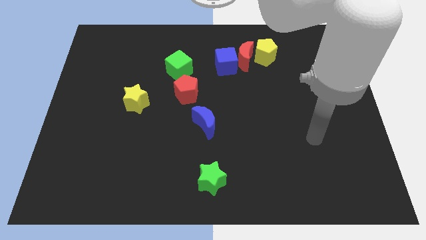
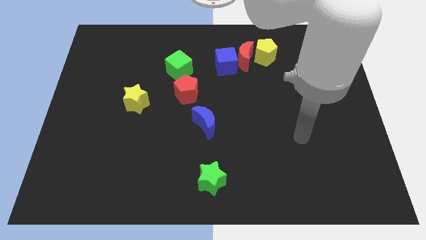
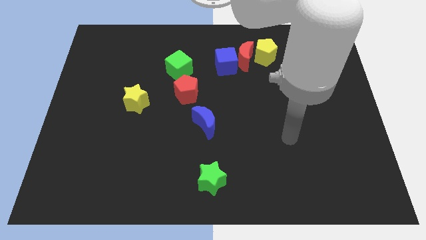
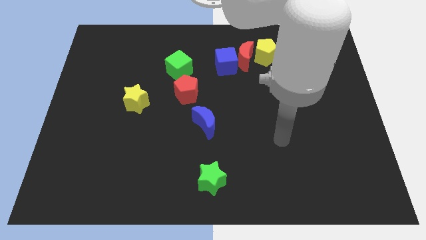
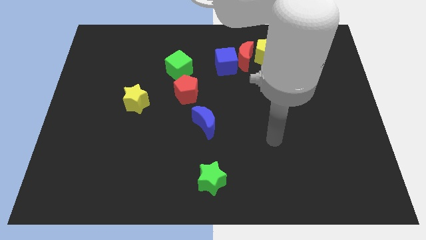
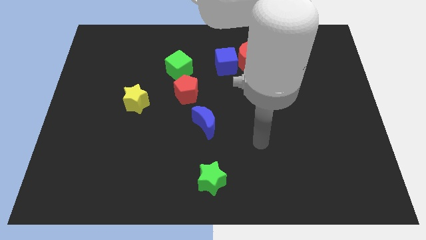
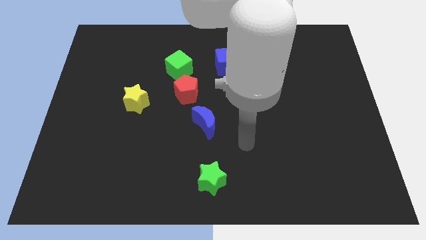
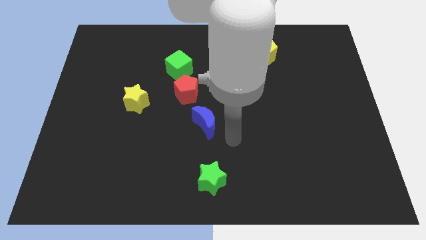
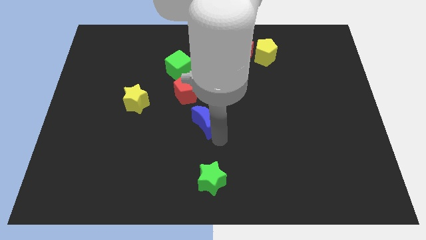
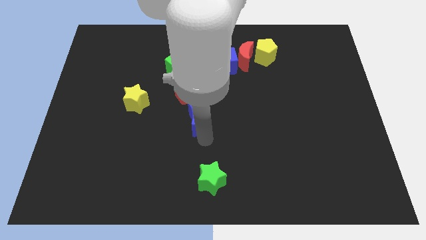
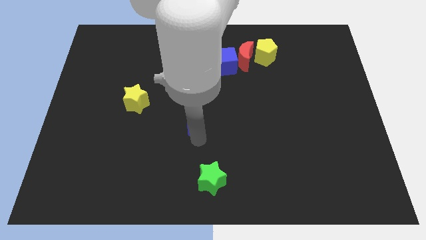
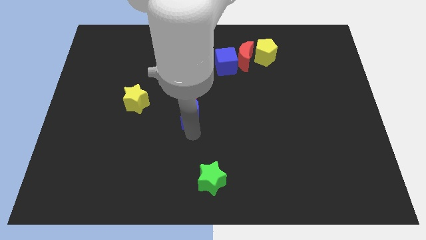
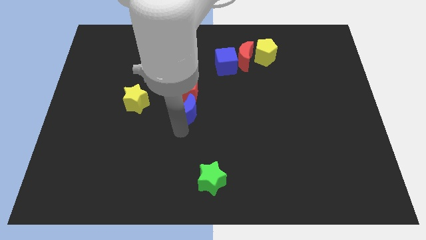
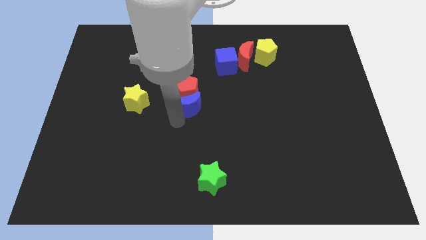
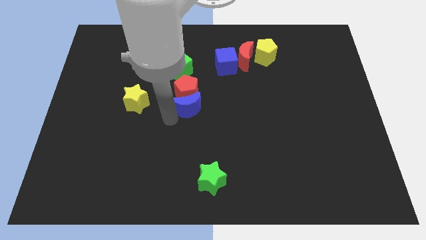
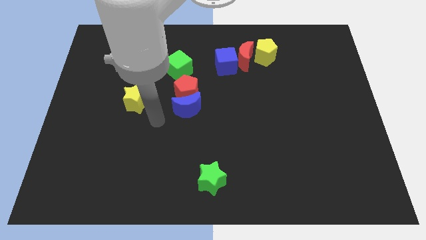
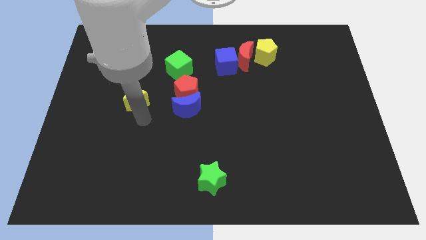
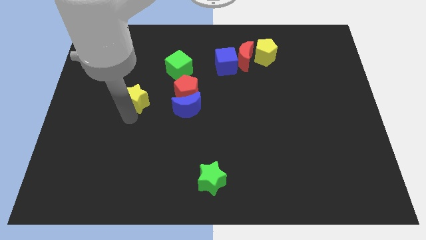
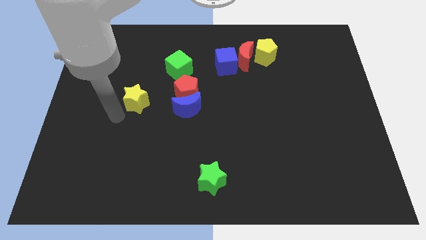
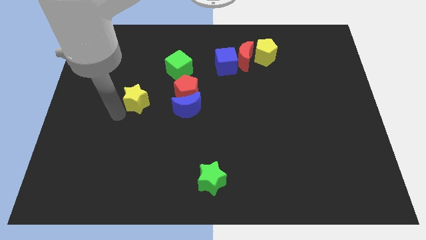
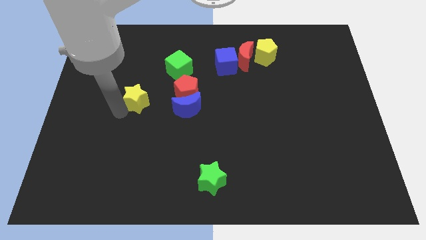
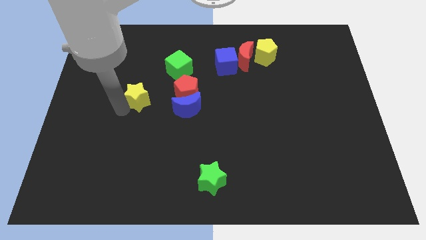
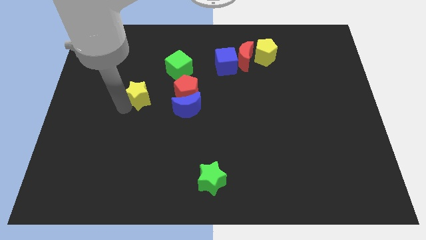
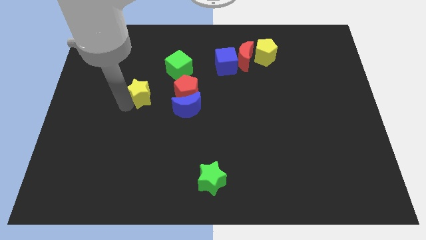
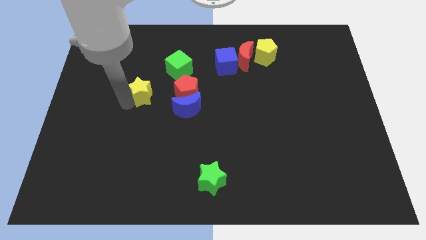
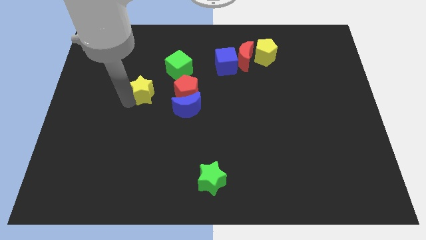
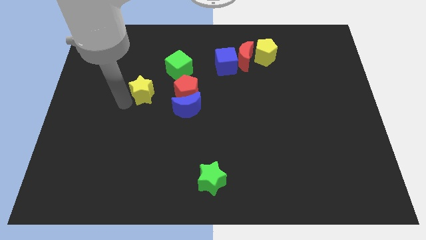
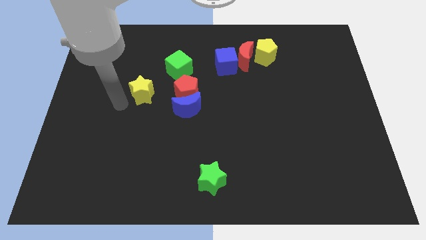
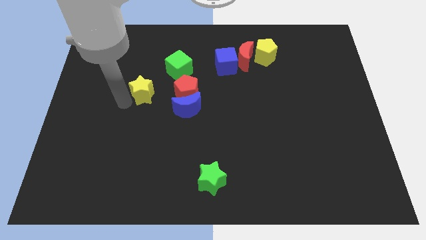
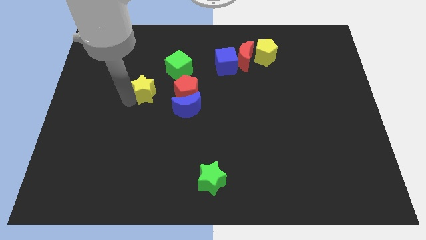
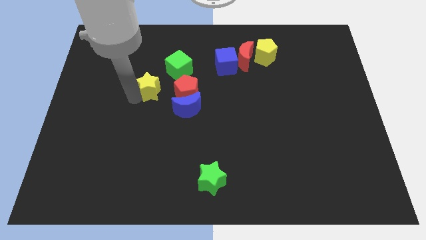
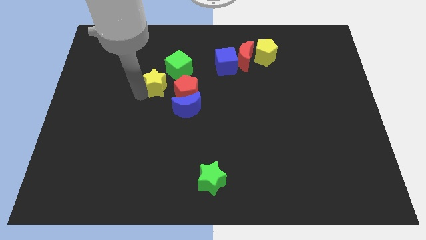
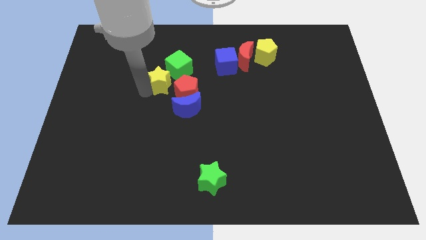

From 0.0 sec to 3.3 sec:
slightly slide the yellow star upwards and right

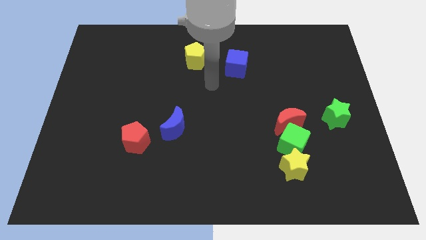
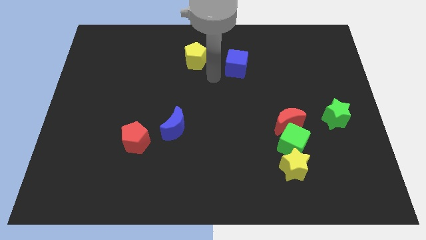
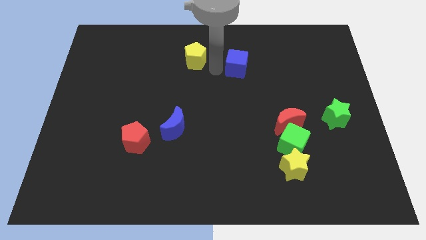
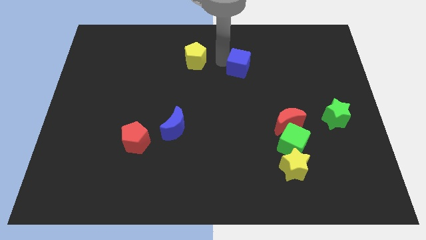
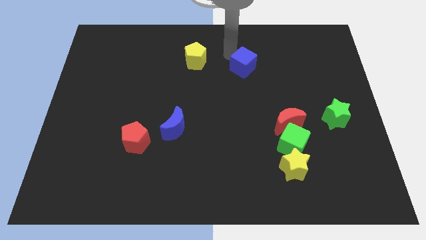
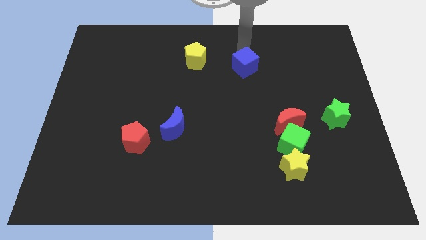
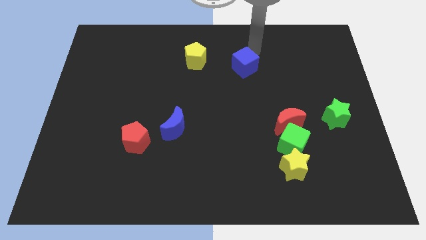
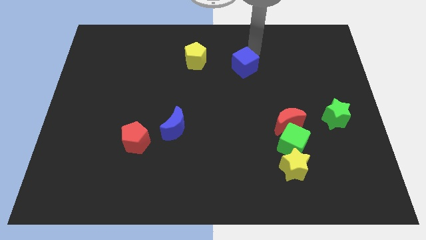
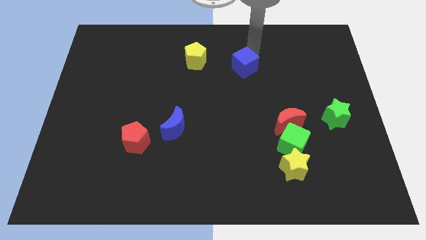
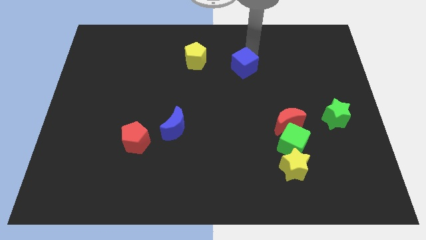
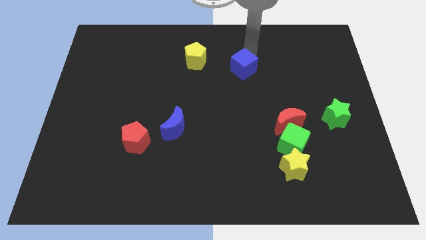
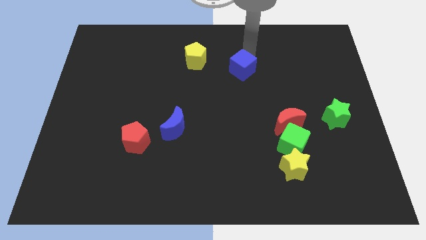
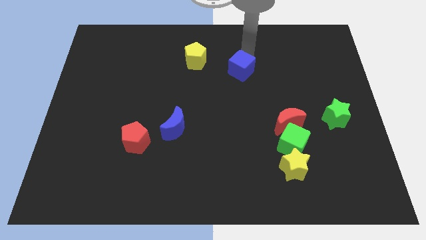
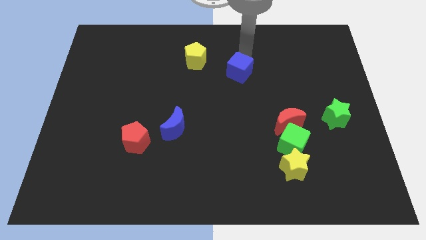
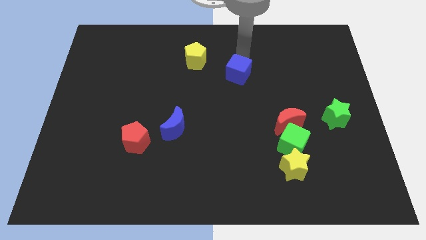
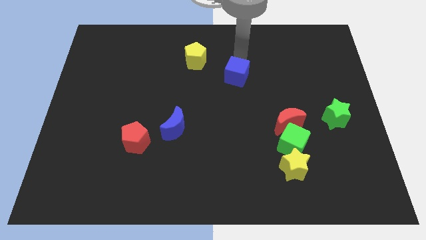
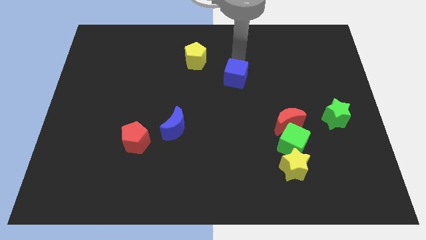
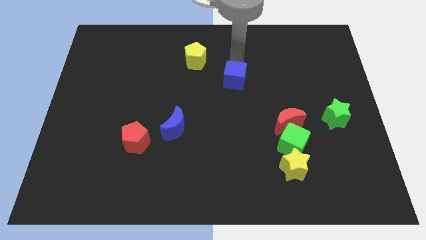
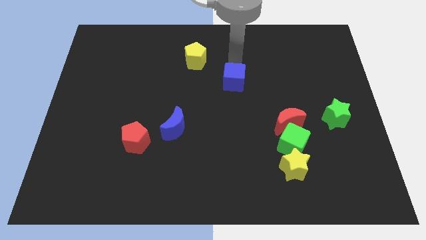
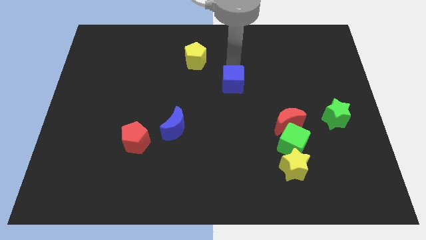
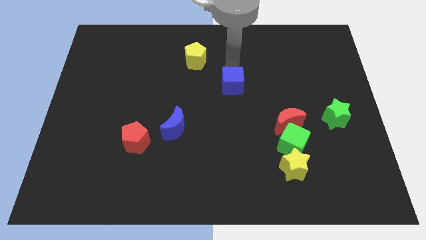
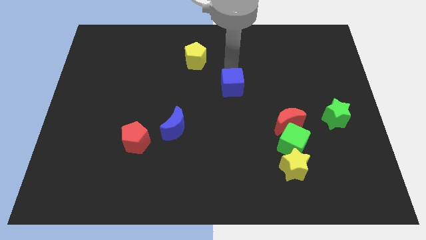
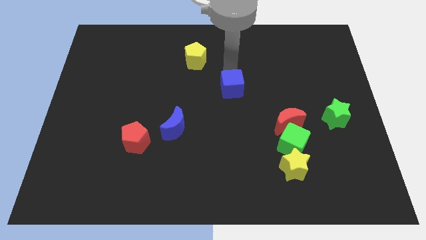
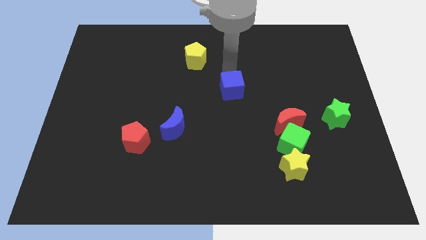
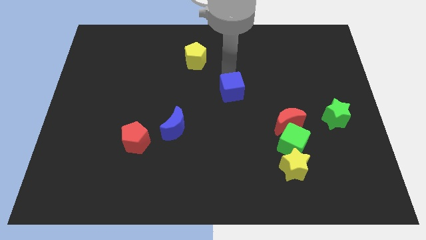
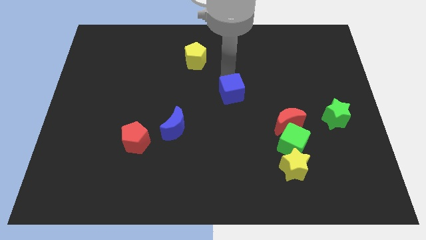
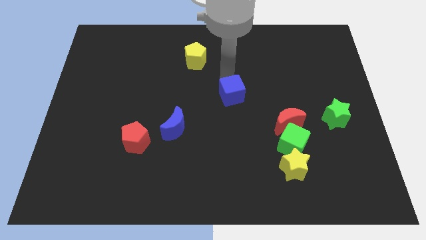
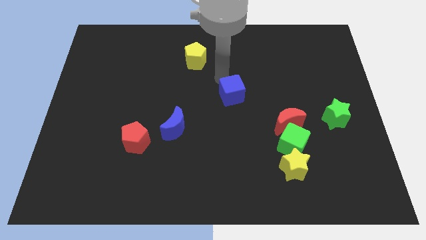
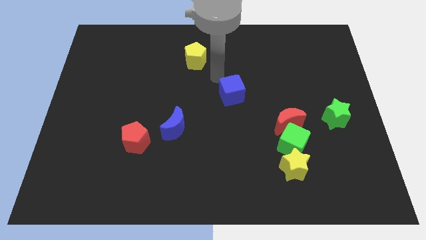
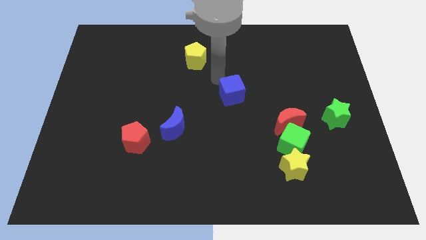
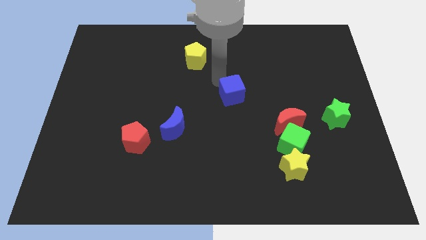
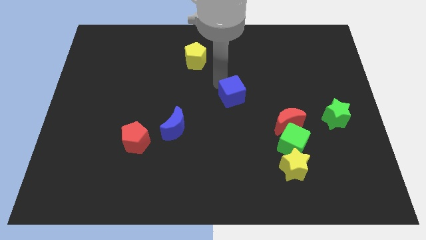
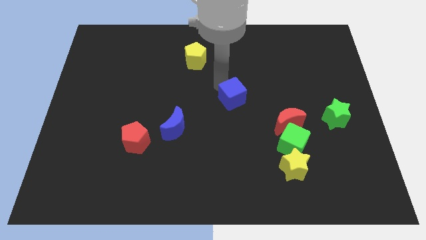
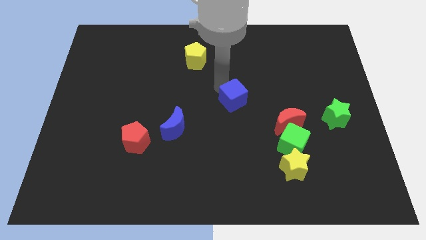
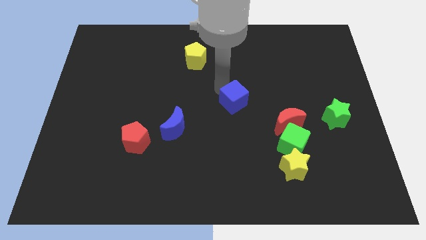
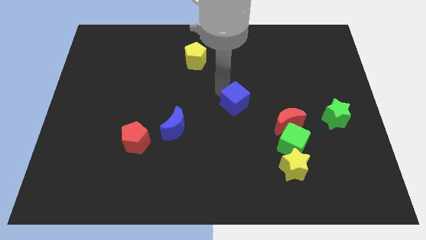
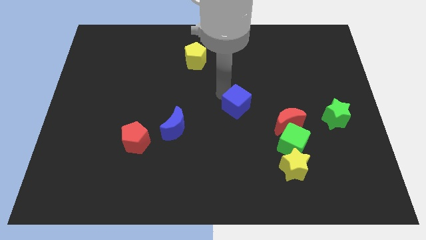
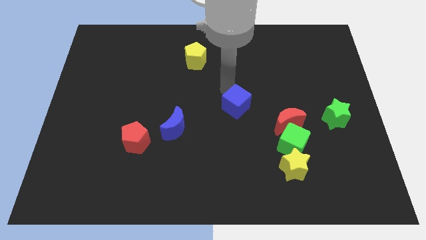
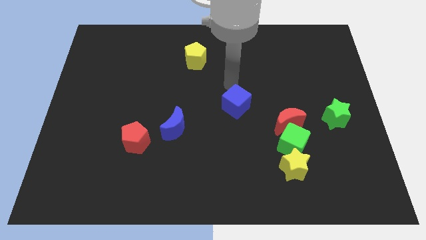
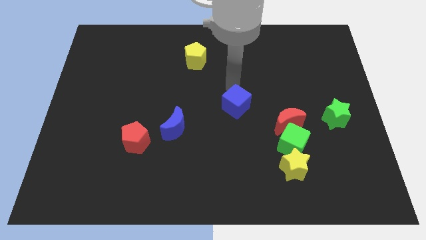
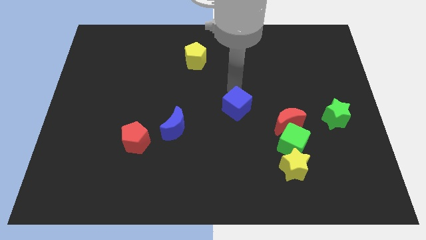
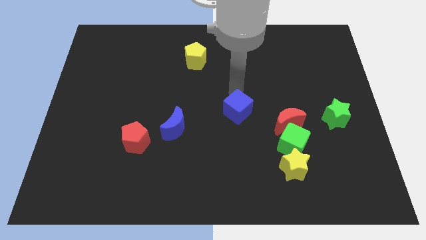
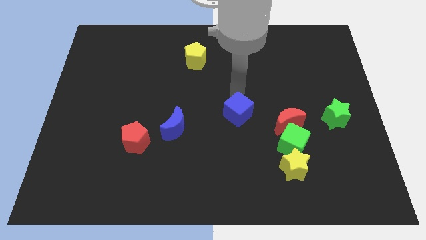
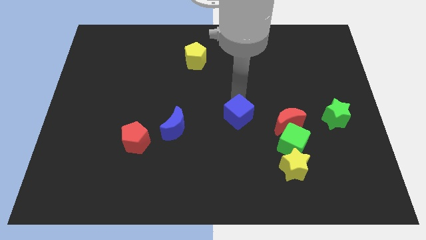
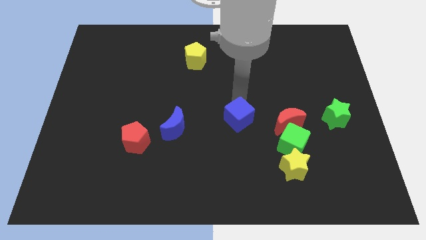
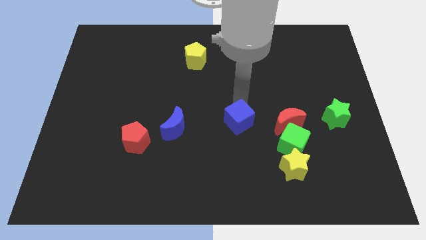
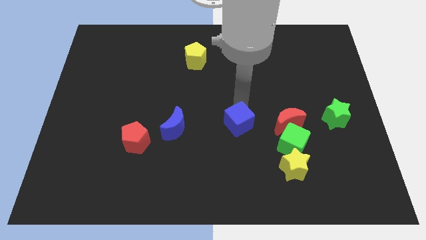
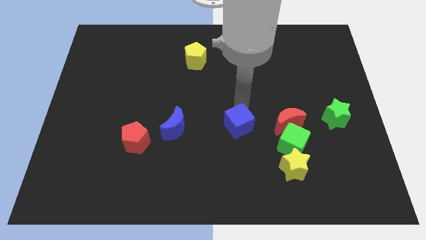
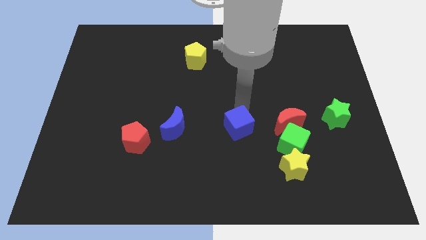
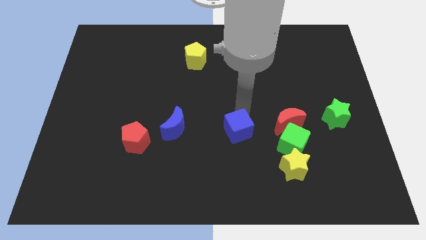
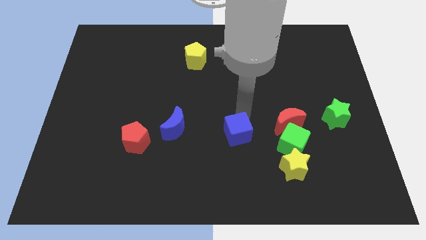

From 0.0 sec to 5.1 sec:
slide the blue cube down
